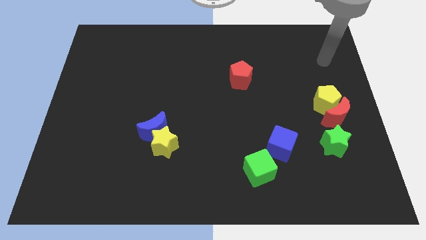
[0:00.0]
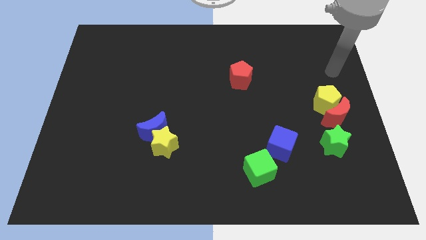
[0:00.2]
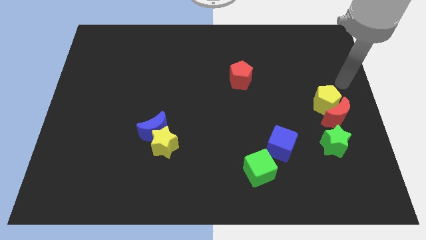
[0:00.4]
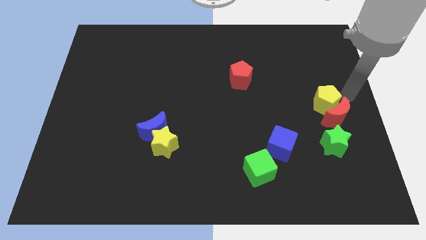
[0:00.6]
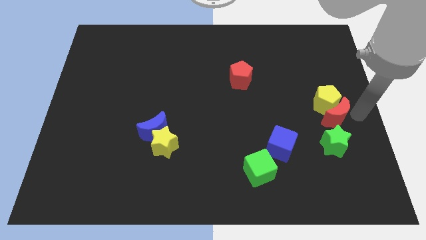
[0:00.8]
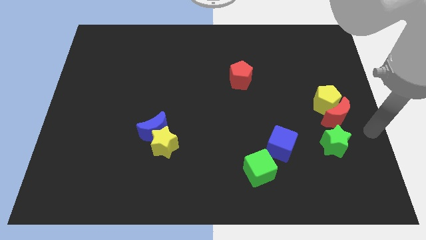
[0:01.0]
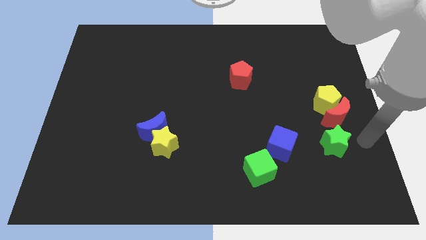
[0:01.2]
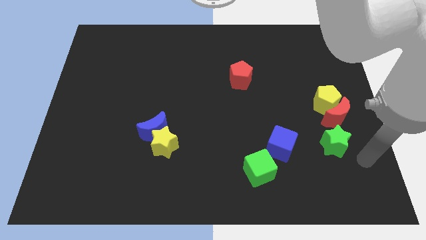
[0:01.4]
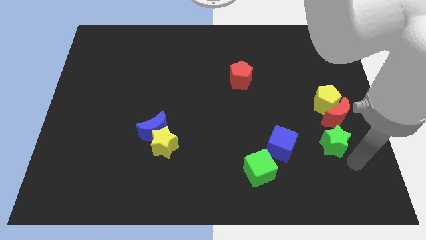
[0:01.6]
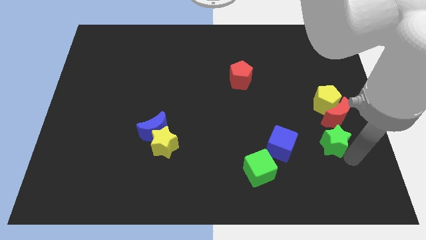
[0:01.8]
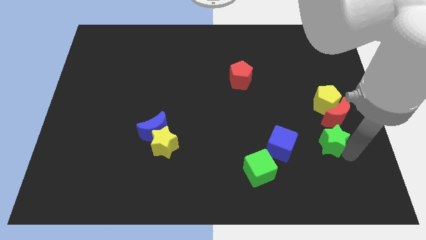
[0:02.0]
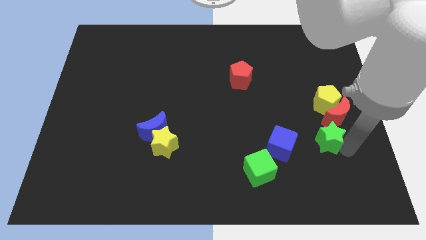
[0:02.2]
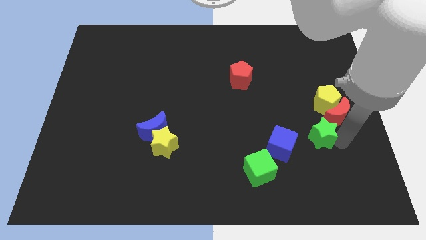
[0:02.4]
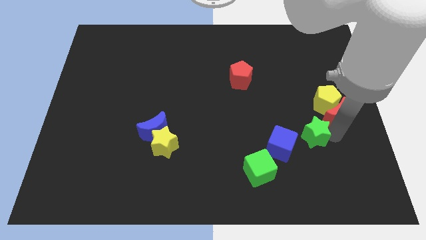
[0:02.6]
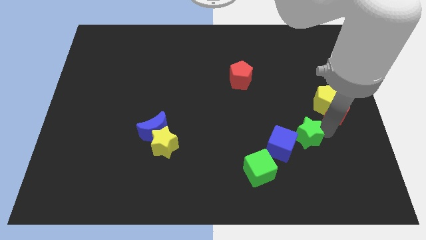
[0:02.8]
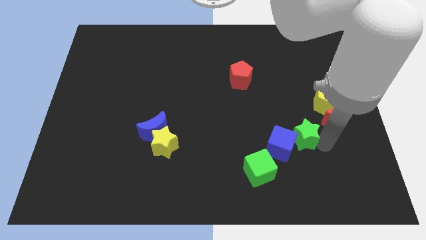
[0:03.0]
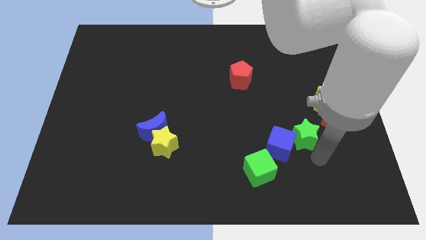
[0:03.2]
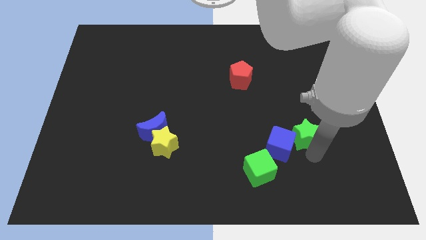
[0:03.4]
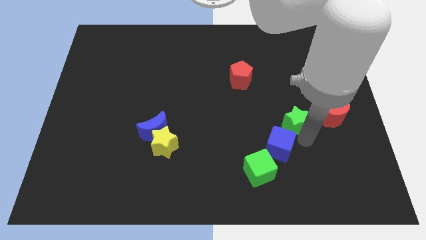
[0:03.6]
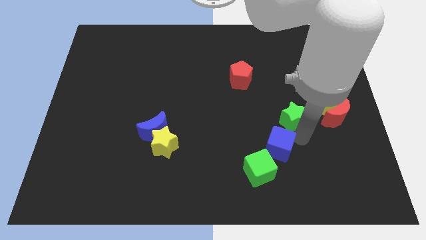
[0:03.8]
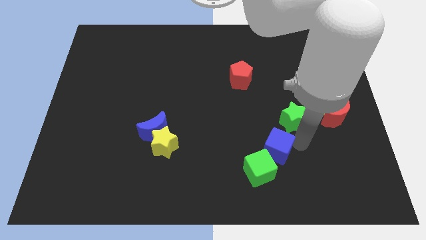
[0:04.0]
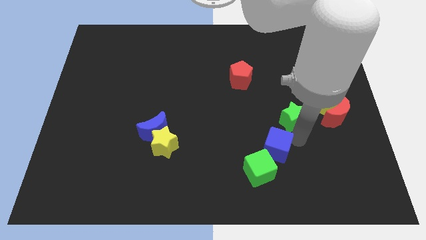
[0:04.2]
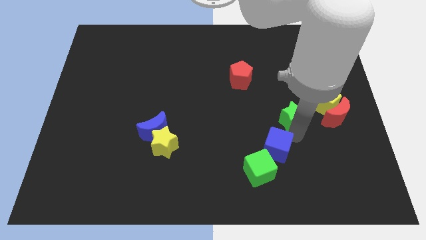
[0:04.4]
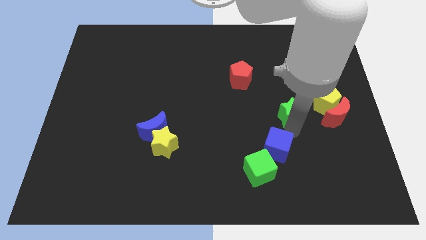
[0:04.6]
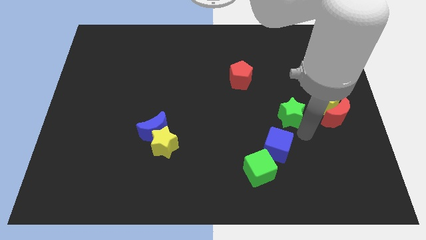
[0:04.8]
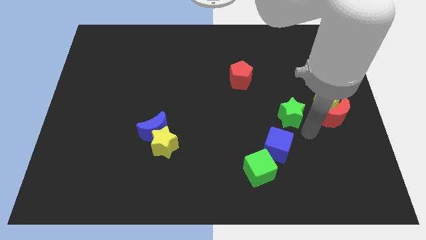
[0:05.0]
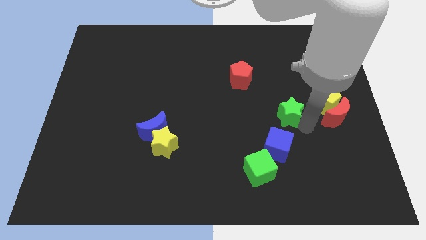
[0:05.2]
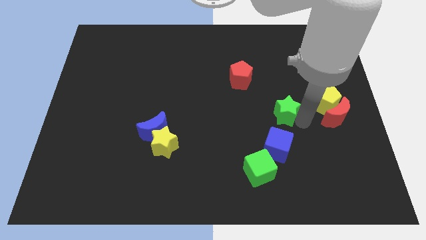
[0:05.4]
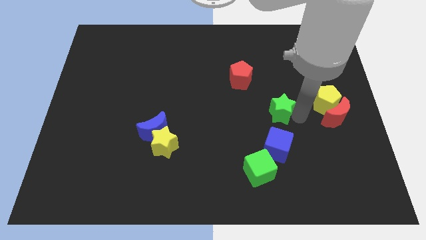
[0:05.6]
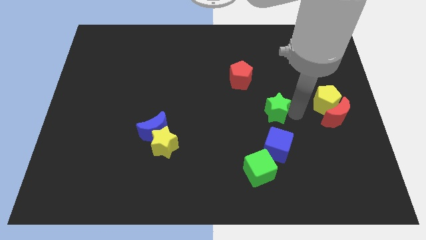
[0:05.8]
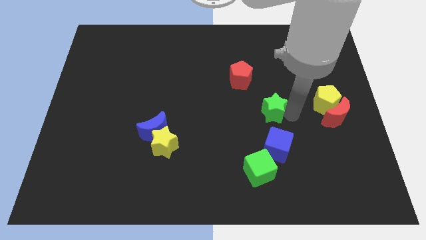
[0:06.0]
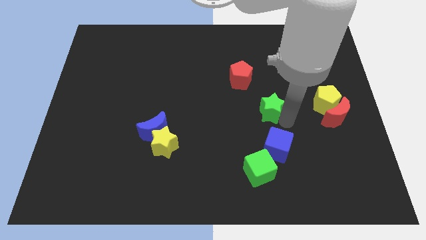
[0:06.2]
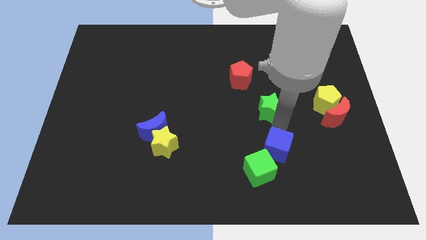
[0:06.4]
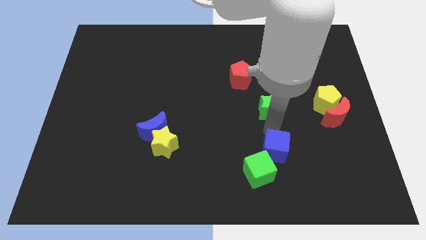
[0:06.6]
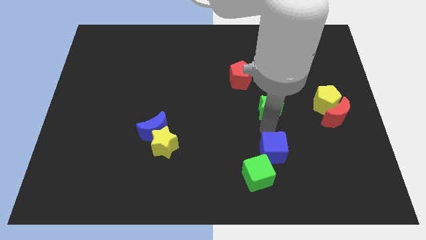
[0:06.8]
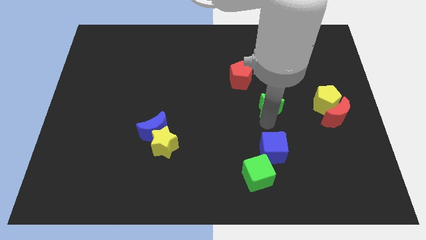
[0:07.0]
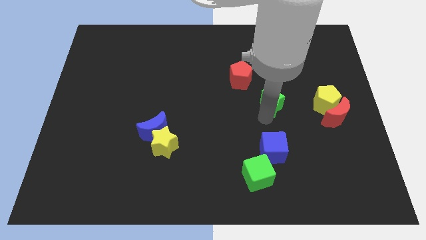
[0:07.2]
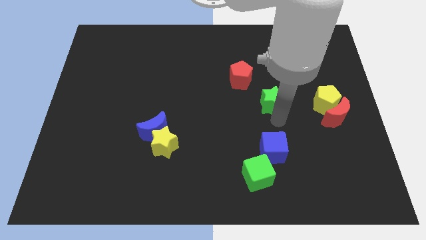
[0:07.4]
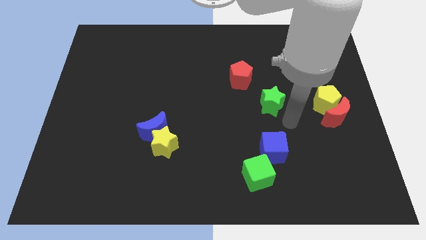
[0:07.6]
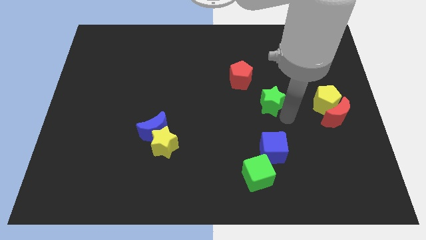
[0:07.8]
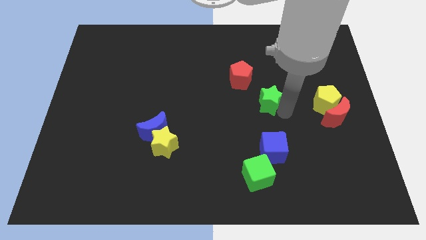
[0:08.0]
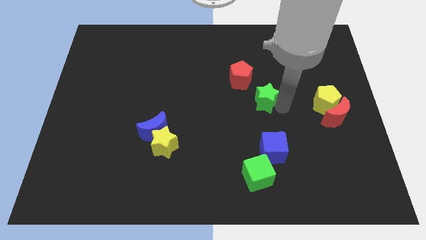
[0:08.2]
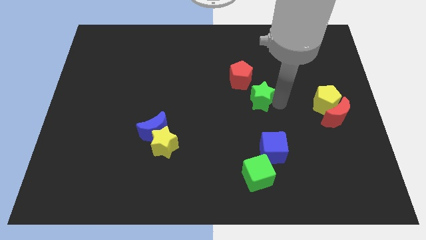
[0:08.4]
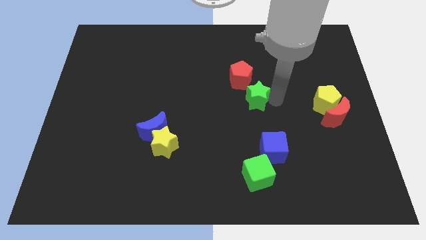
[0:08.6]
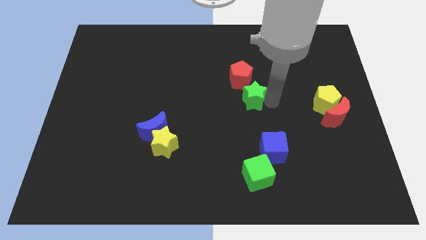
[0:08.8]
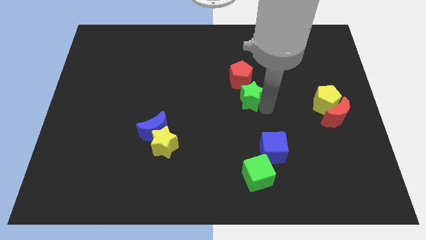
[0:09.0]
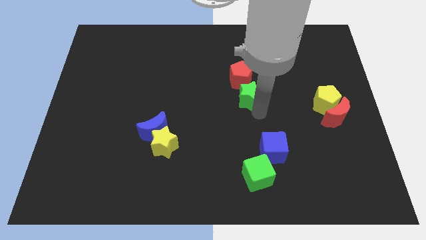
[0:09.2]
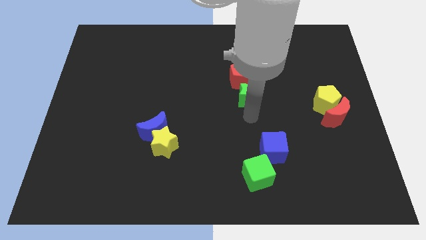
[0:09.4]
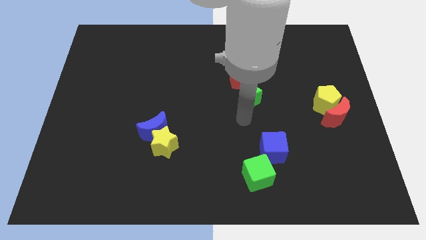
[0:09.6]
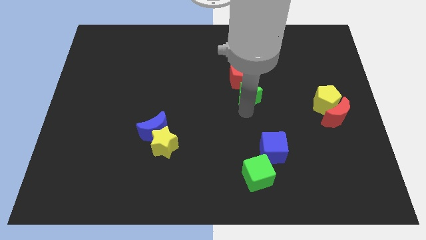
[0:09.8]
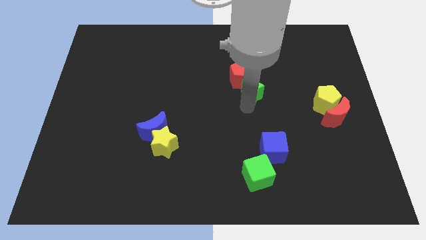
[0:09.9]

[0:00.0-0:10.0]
push the green star close to the red pentagon

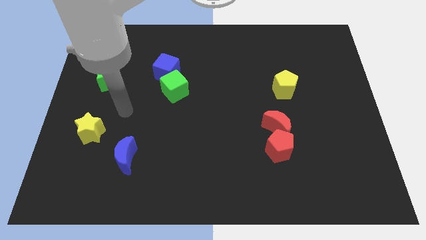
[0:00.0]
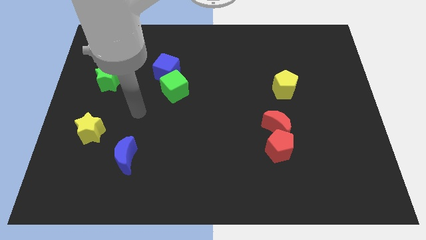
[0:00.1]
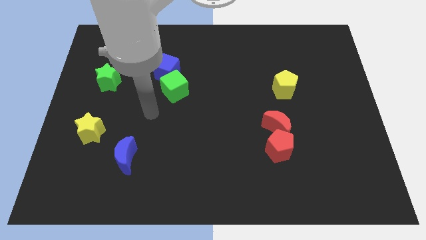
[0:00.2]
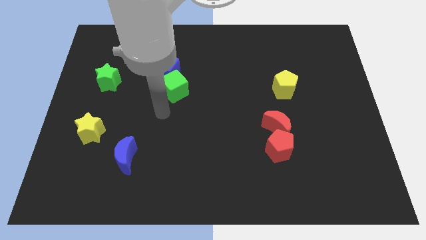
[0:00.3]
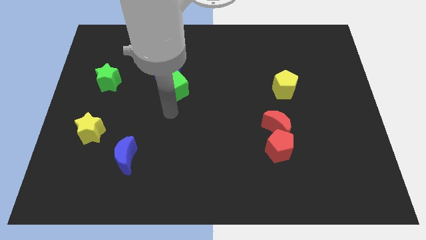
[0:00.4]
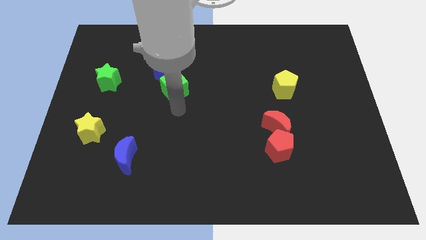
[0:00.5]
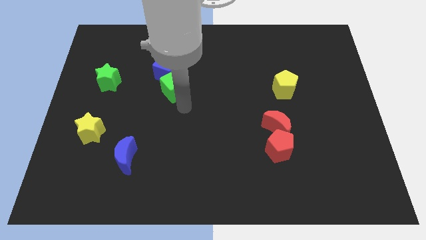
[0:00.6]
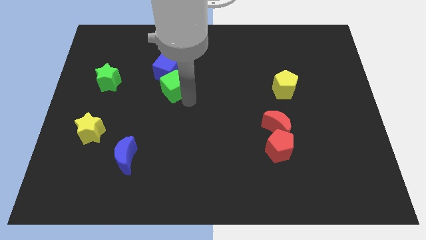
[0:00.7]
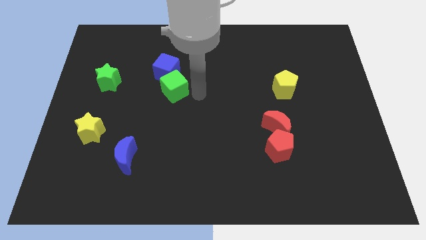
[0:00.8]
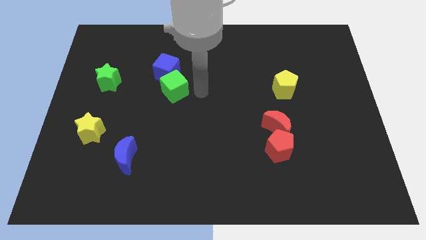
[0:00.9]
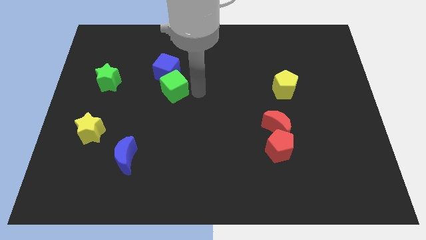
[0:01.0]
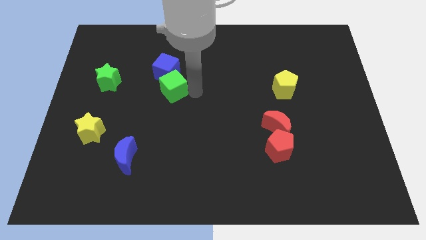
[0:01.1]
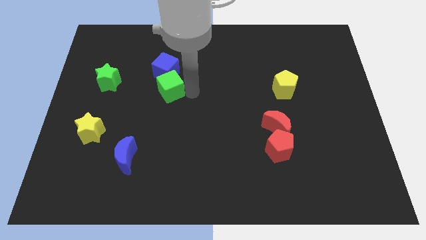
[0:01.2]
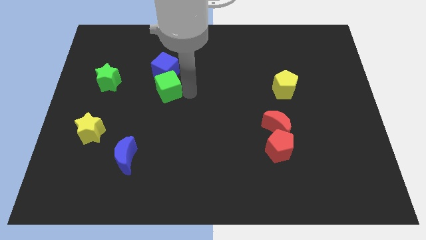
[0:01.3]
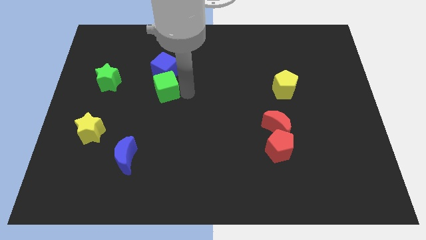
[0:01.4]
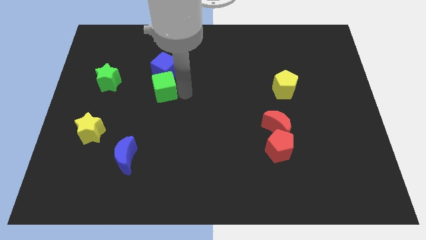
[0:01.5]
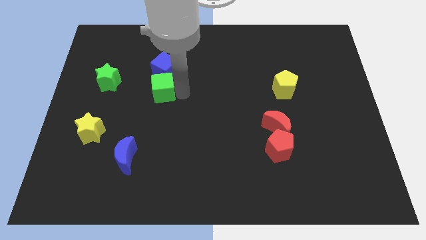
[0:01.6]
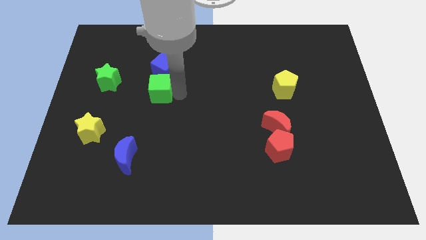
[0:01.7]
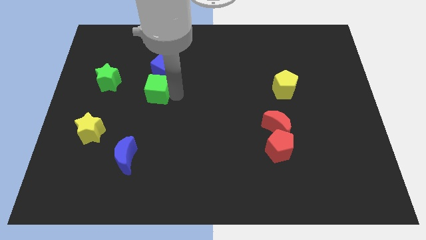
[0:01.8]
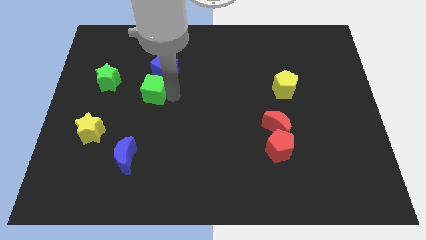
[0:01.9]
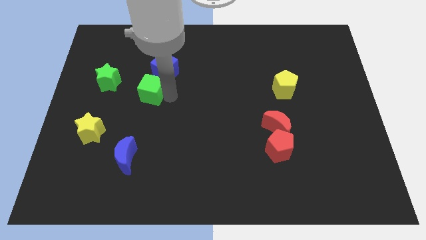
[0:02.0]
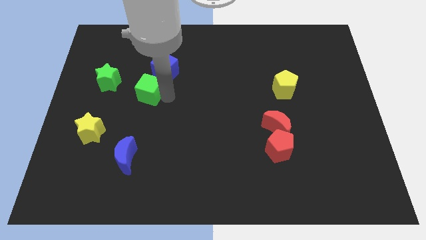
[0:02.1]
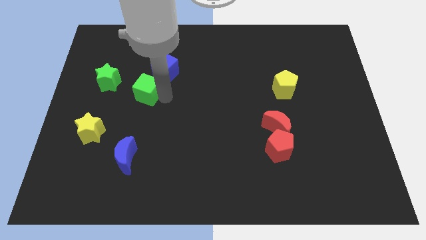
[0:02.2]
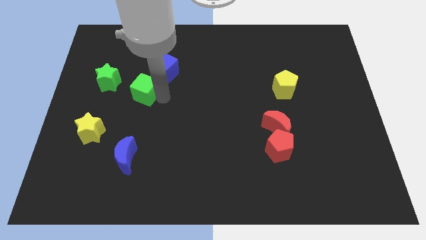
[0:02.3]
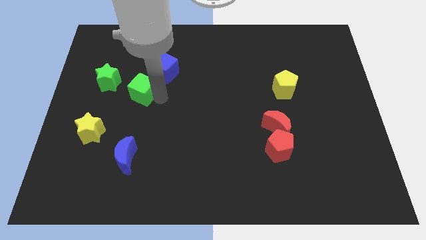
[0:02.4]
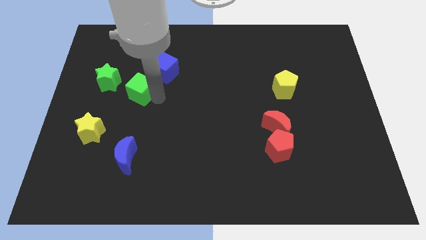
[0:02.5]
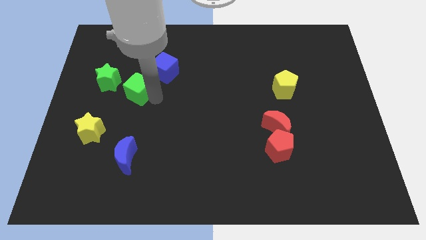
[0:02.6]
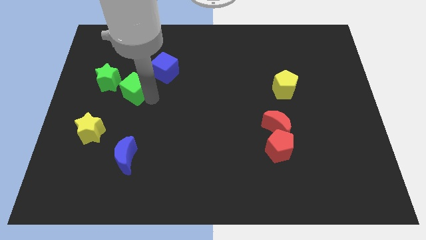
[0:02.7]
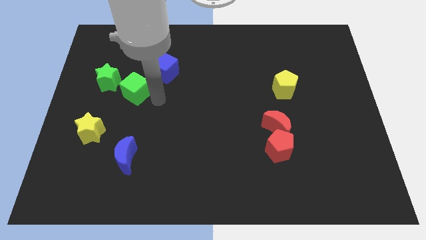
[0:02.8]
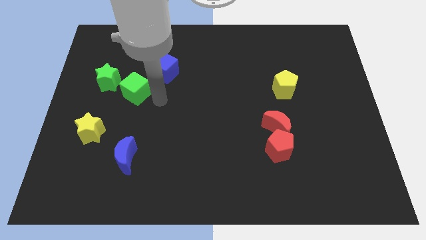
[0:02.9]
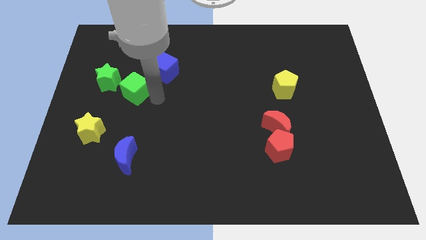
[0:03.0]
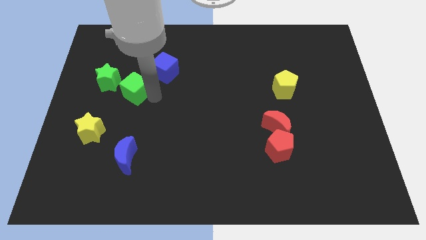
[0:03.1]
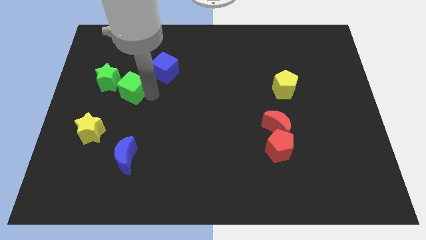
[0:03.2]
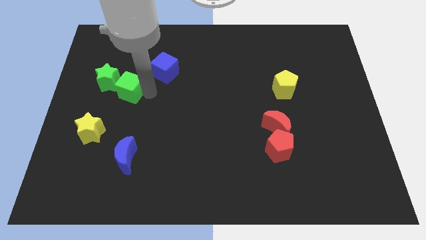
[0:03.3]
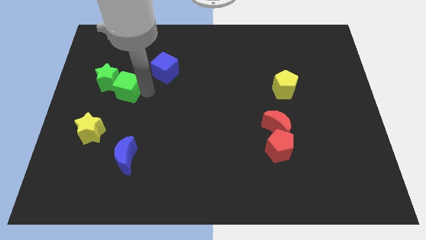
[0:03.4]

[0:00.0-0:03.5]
put the green cube towards the green star
